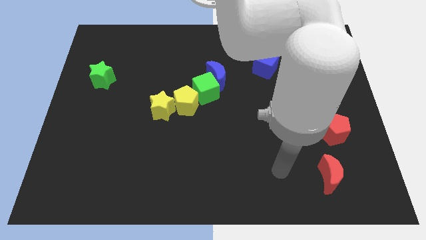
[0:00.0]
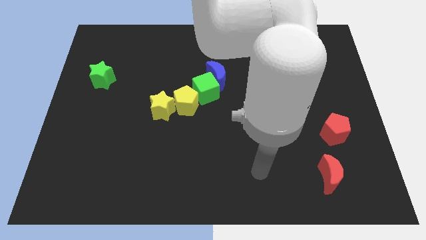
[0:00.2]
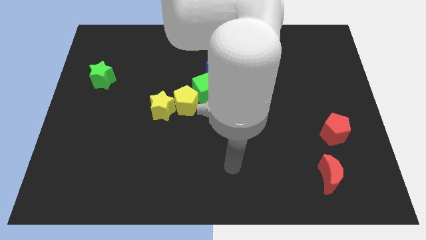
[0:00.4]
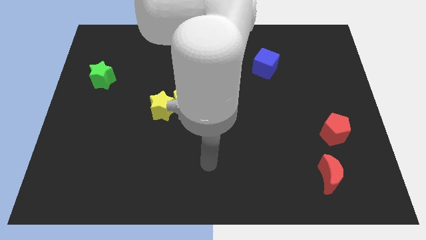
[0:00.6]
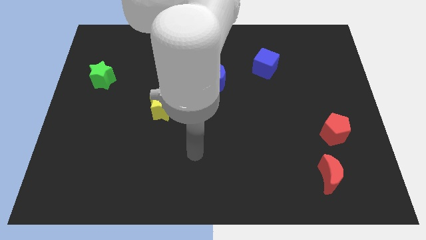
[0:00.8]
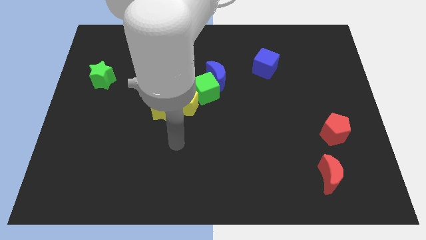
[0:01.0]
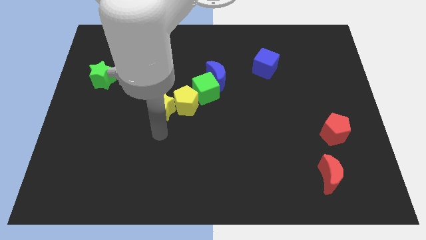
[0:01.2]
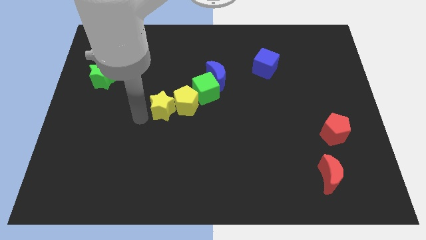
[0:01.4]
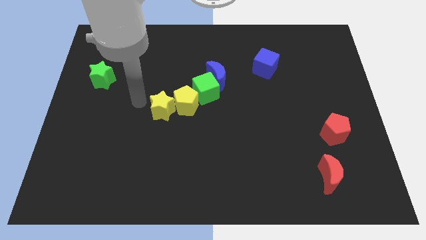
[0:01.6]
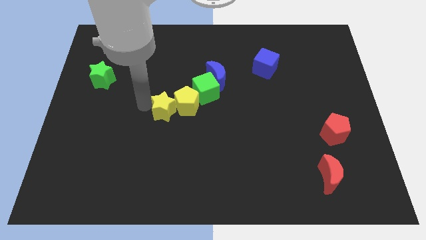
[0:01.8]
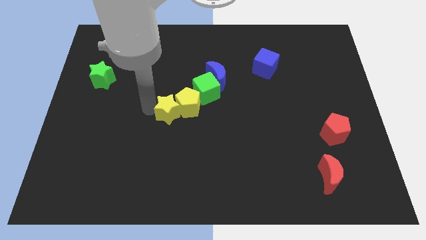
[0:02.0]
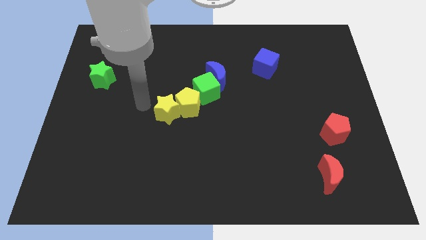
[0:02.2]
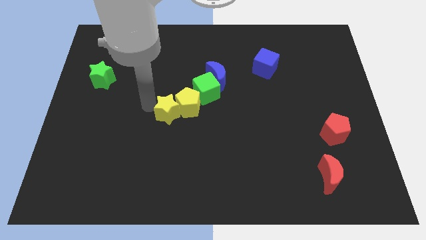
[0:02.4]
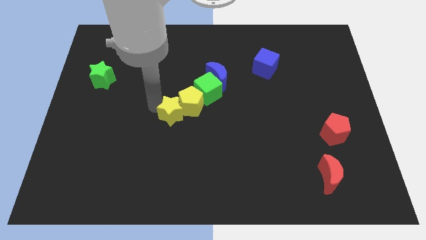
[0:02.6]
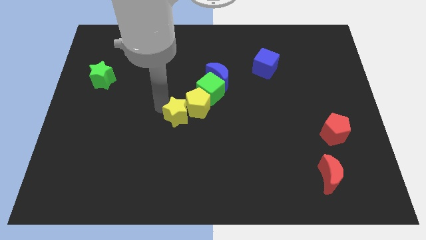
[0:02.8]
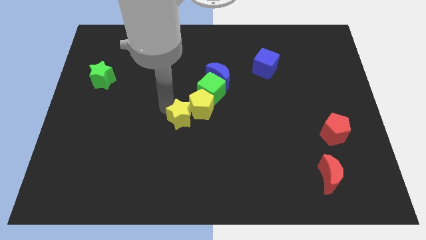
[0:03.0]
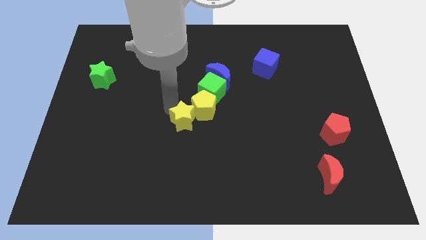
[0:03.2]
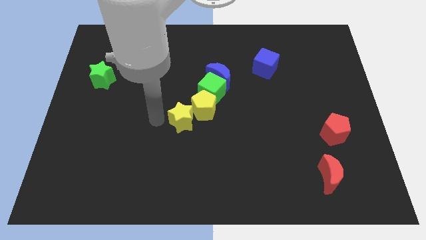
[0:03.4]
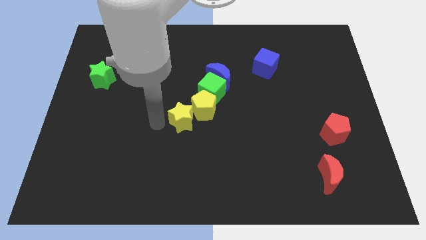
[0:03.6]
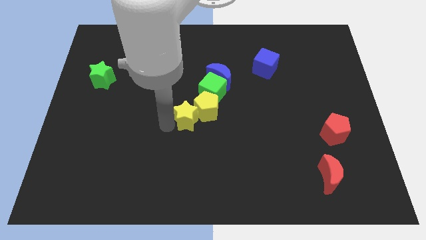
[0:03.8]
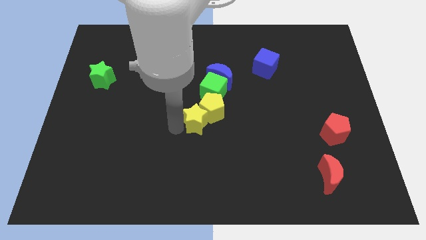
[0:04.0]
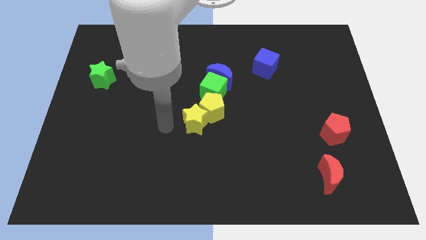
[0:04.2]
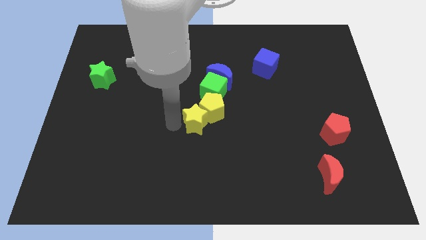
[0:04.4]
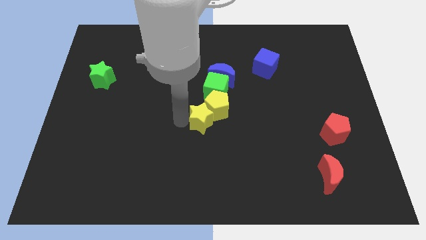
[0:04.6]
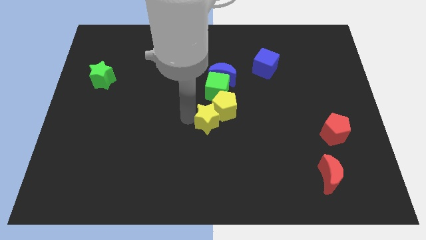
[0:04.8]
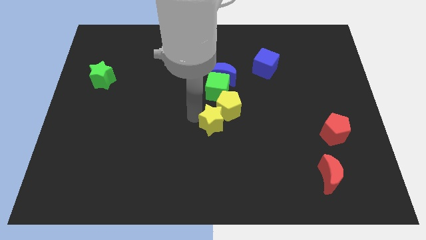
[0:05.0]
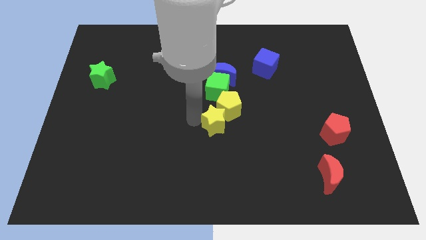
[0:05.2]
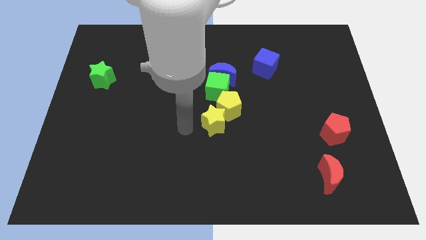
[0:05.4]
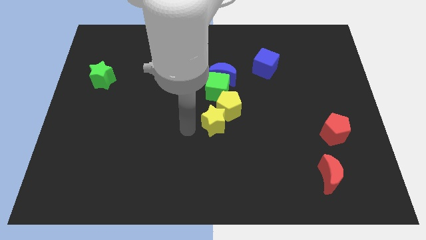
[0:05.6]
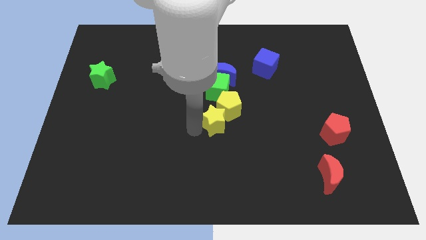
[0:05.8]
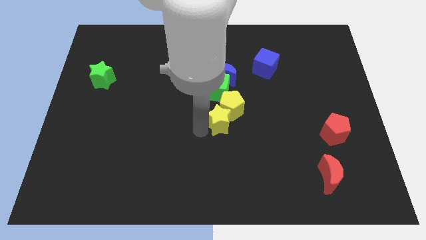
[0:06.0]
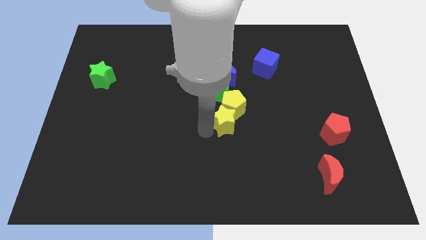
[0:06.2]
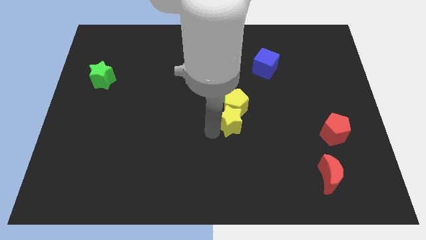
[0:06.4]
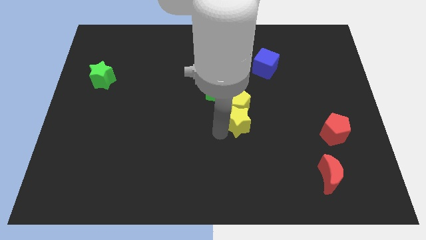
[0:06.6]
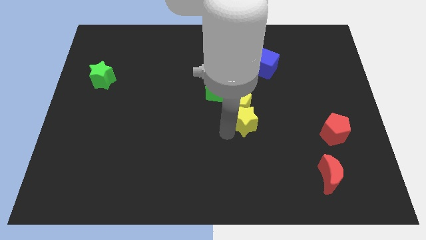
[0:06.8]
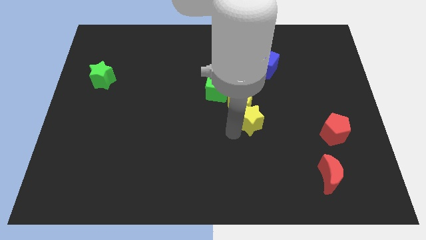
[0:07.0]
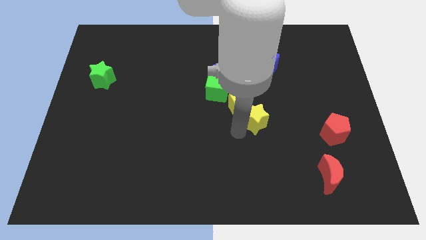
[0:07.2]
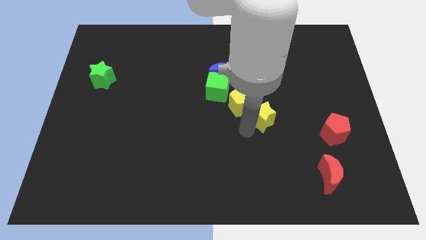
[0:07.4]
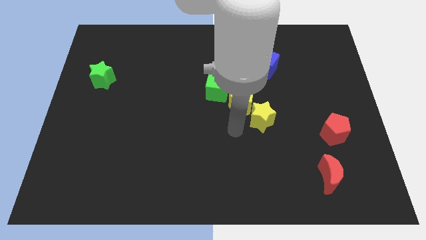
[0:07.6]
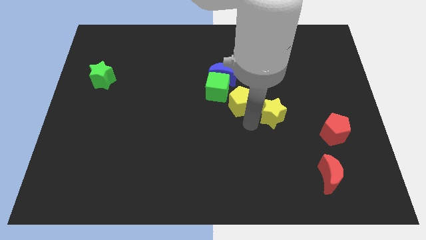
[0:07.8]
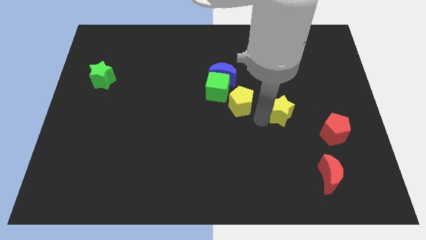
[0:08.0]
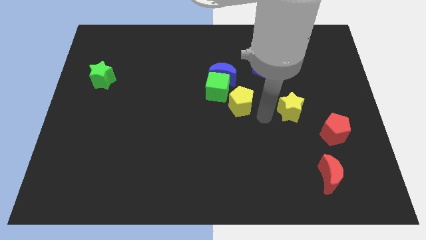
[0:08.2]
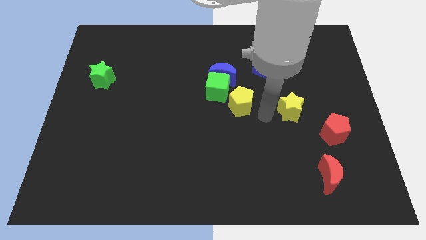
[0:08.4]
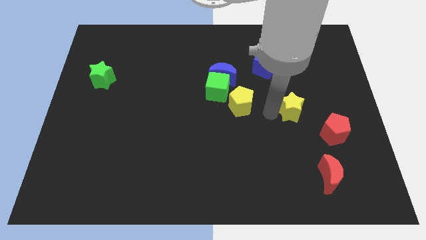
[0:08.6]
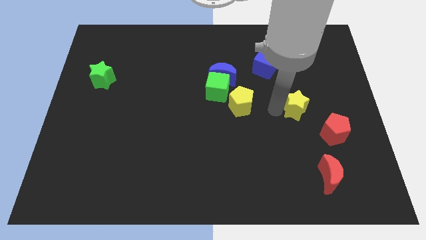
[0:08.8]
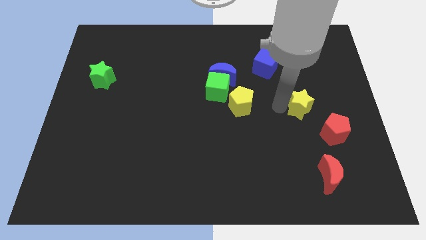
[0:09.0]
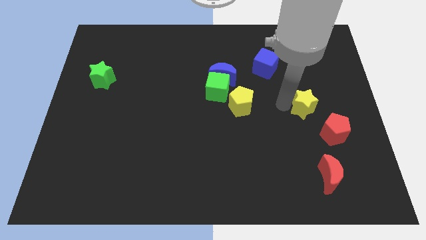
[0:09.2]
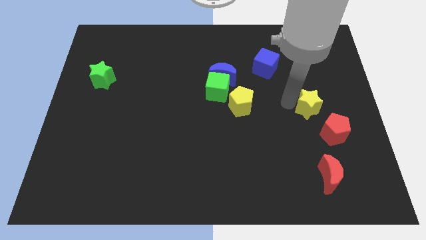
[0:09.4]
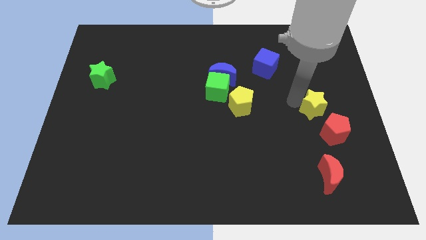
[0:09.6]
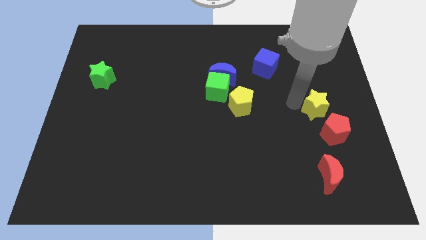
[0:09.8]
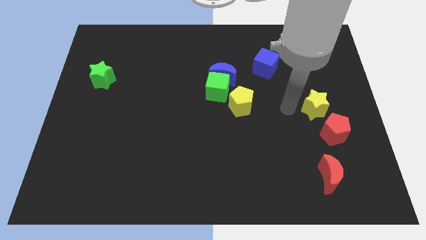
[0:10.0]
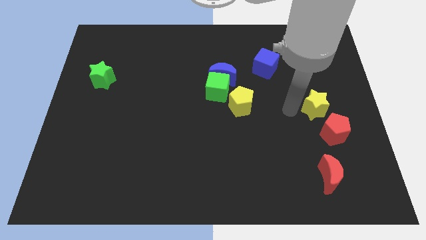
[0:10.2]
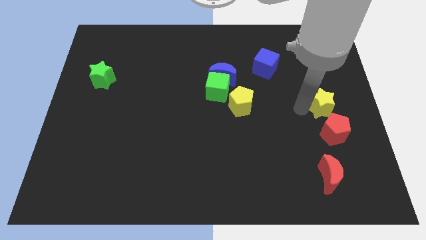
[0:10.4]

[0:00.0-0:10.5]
slide the yellow star to the right side of the board

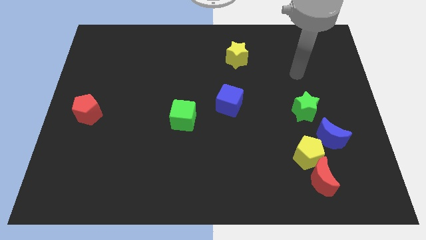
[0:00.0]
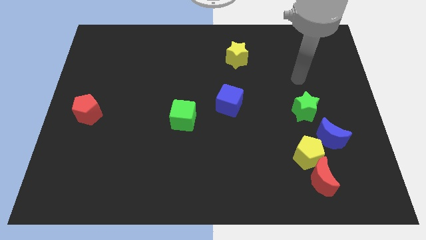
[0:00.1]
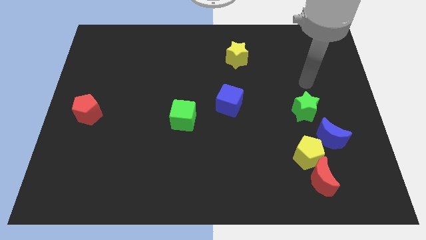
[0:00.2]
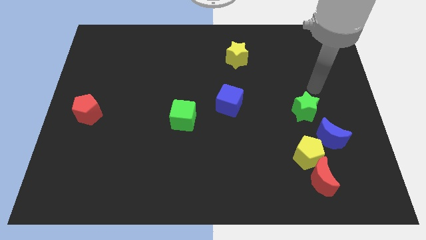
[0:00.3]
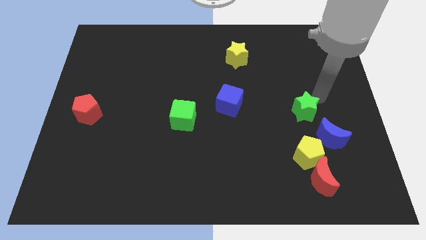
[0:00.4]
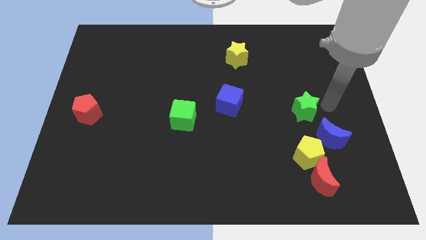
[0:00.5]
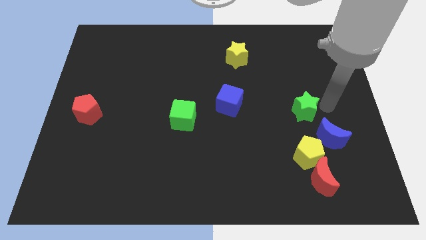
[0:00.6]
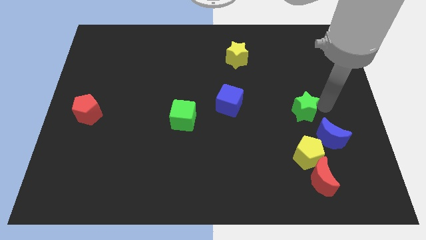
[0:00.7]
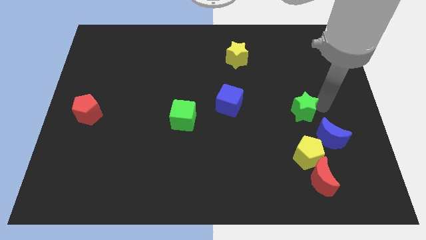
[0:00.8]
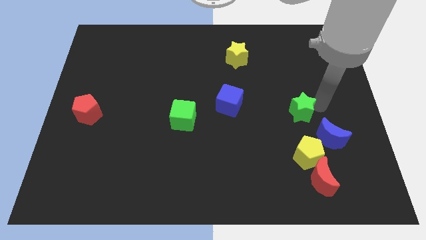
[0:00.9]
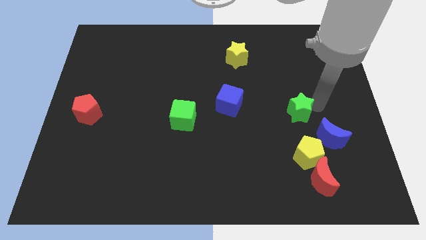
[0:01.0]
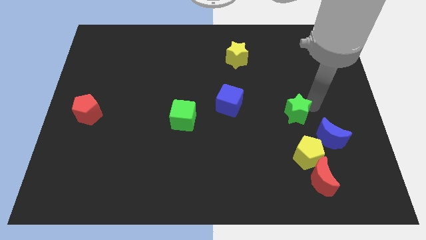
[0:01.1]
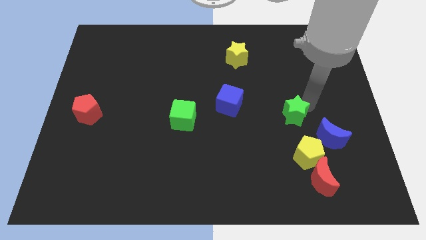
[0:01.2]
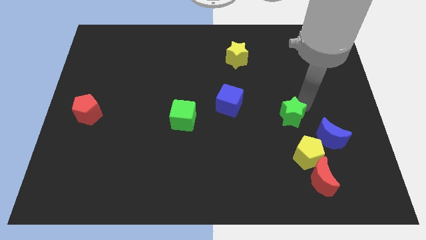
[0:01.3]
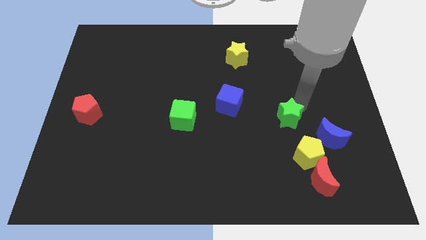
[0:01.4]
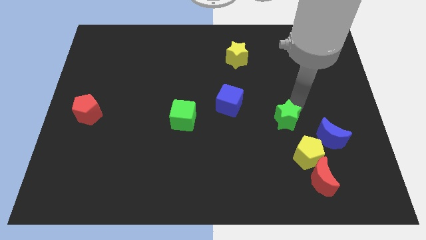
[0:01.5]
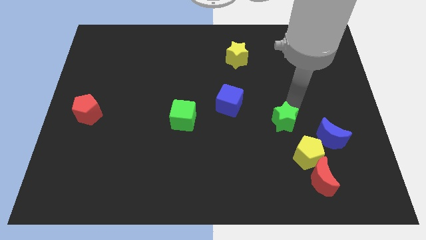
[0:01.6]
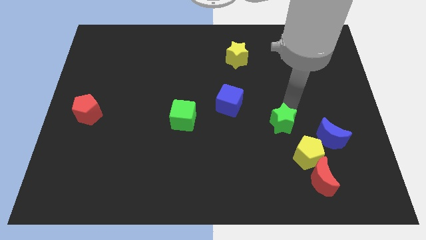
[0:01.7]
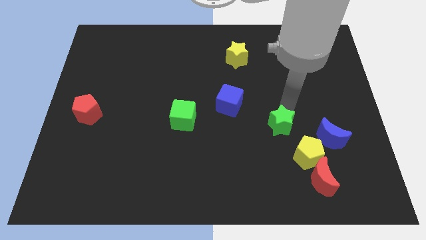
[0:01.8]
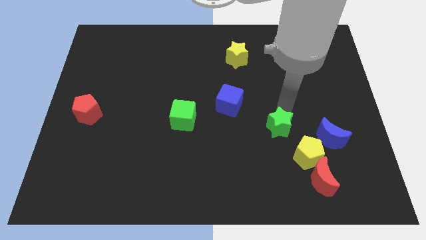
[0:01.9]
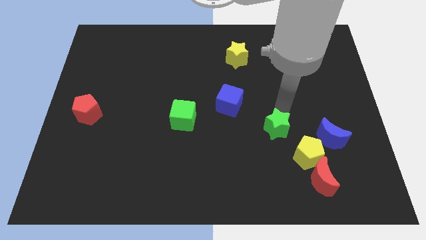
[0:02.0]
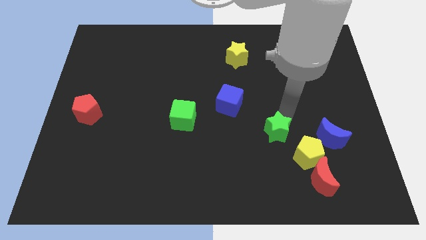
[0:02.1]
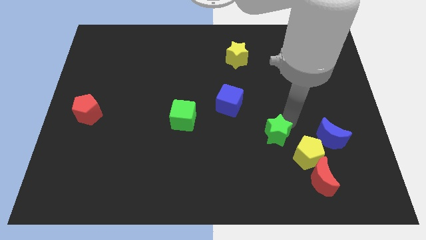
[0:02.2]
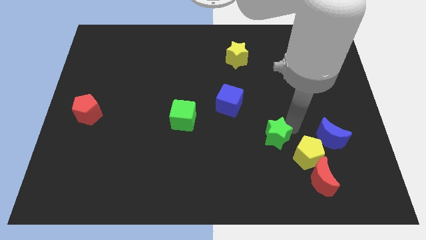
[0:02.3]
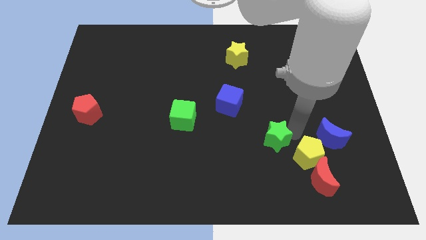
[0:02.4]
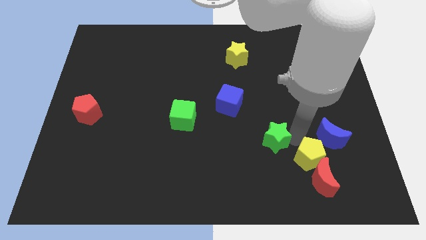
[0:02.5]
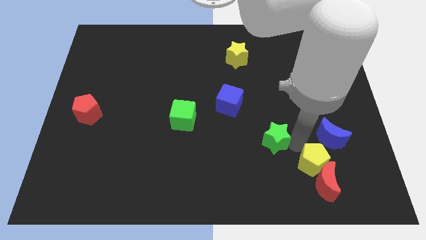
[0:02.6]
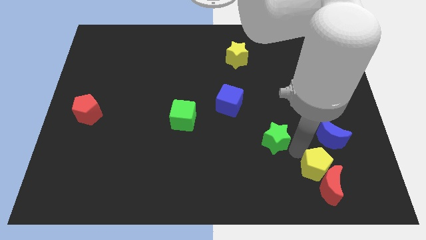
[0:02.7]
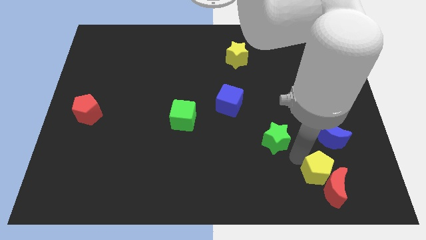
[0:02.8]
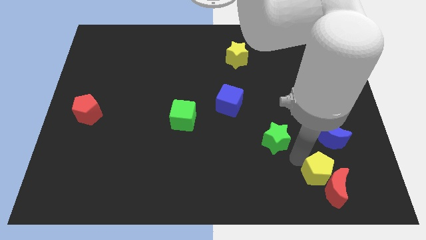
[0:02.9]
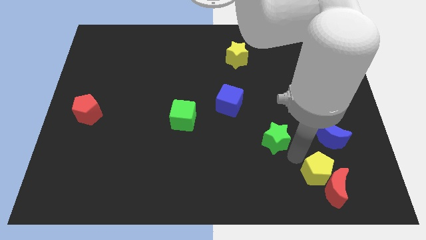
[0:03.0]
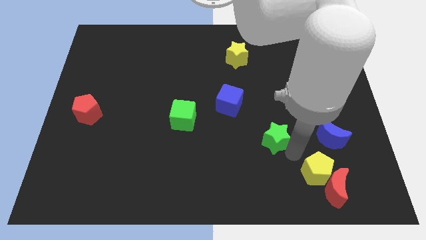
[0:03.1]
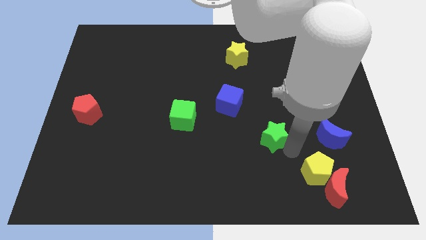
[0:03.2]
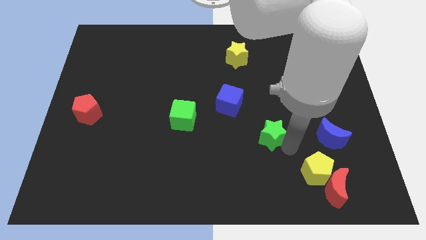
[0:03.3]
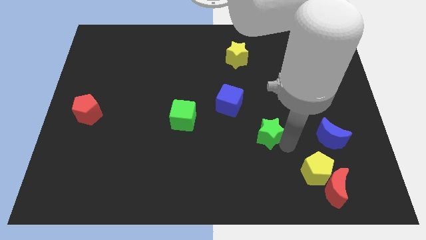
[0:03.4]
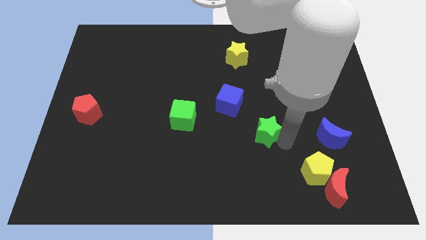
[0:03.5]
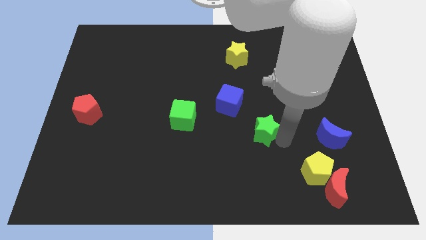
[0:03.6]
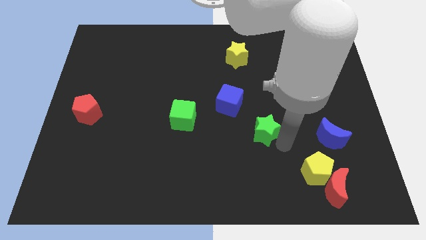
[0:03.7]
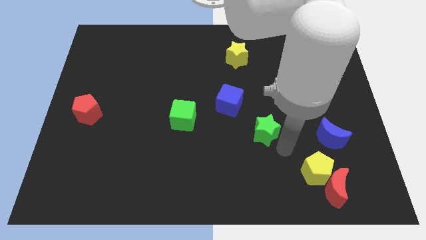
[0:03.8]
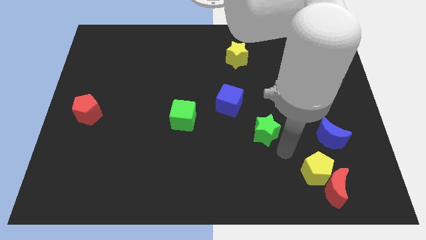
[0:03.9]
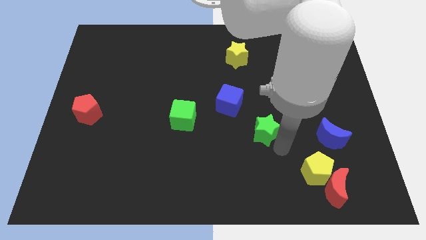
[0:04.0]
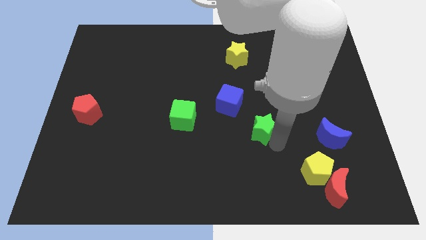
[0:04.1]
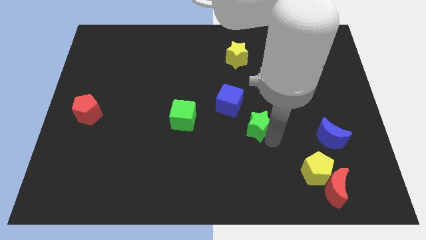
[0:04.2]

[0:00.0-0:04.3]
move the green star to the middle of the board
